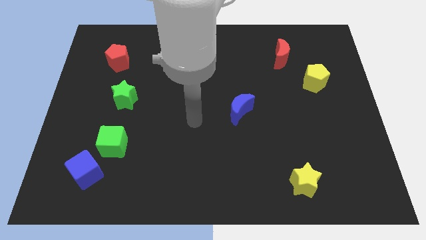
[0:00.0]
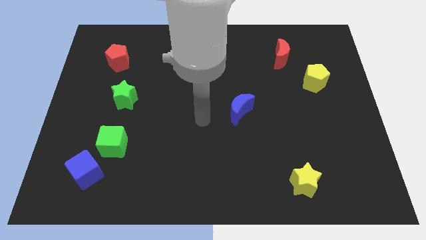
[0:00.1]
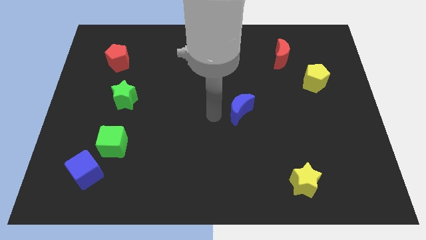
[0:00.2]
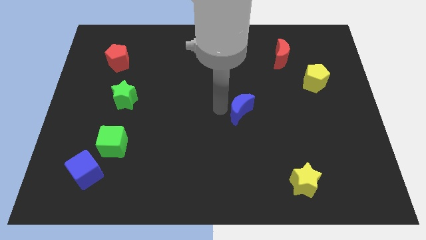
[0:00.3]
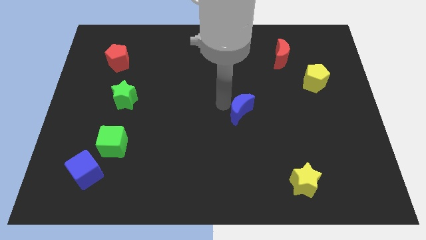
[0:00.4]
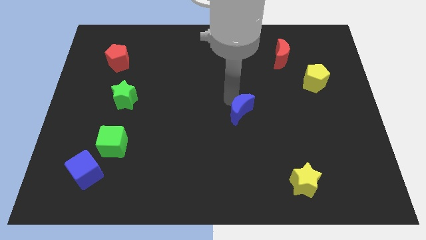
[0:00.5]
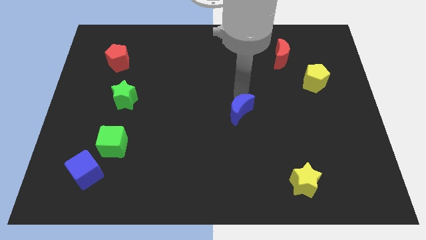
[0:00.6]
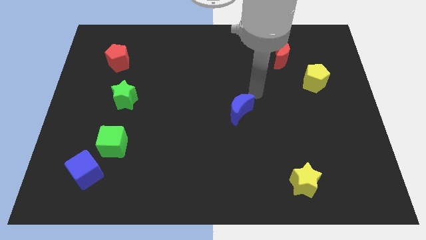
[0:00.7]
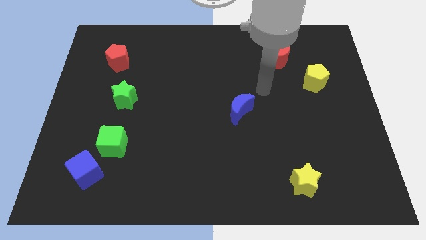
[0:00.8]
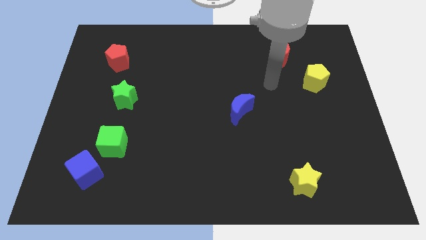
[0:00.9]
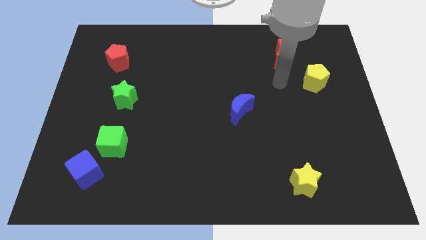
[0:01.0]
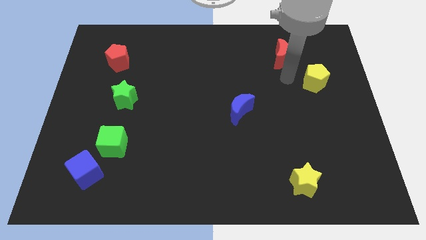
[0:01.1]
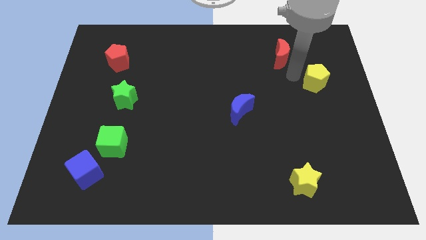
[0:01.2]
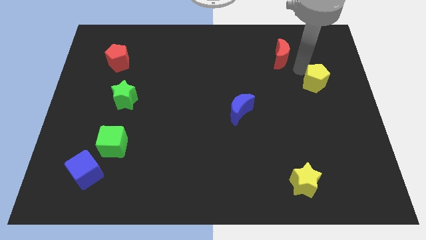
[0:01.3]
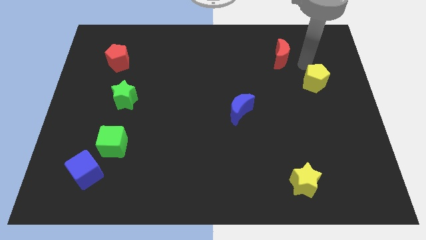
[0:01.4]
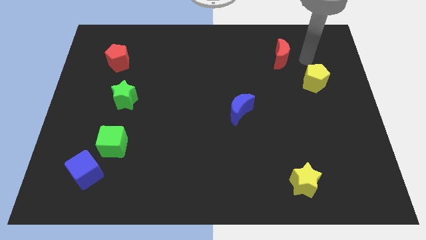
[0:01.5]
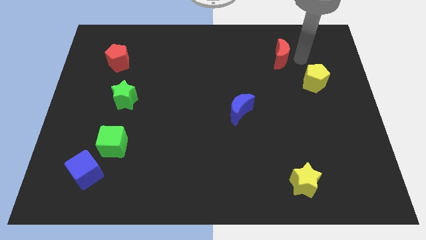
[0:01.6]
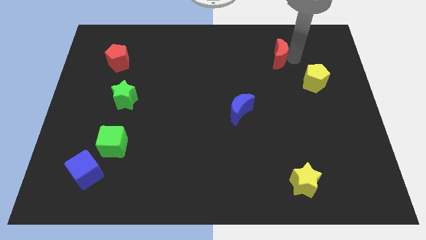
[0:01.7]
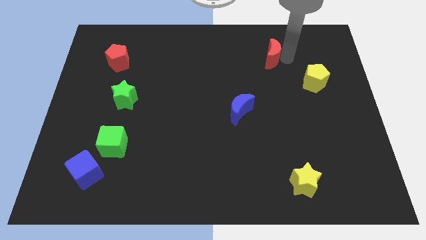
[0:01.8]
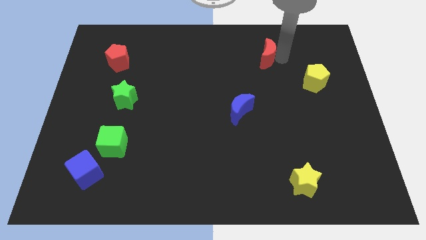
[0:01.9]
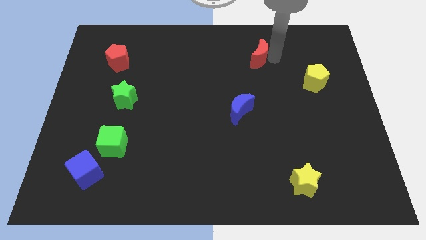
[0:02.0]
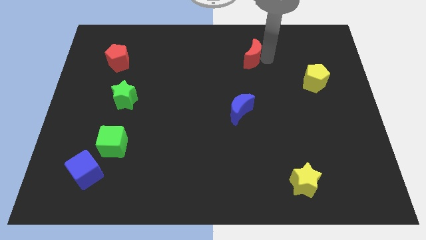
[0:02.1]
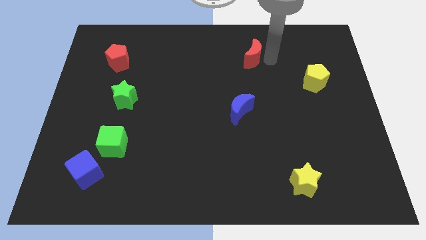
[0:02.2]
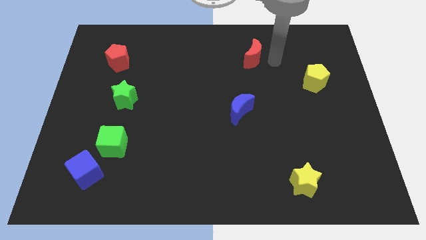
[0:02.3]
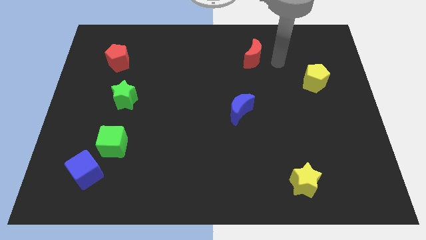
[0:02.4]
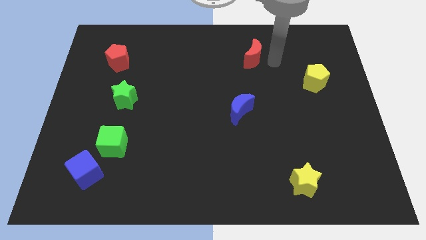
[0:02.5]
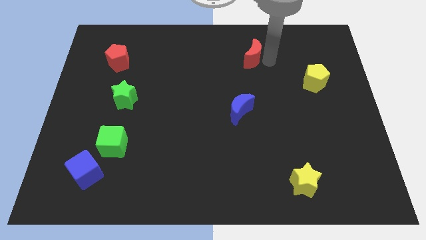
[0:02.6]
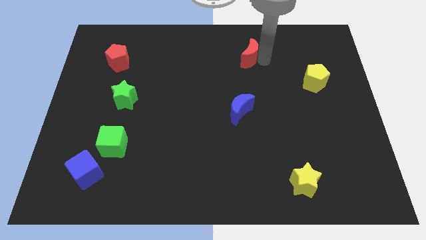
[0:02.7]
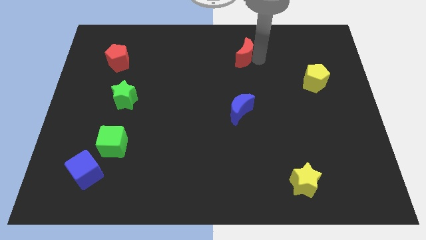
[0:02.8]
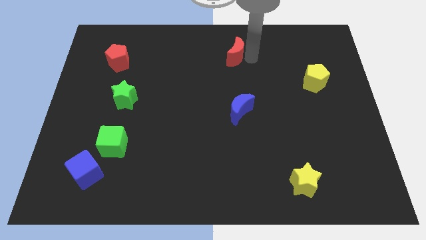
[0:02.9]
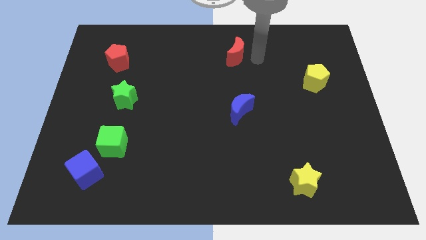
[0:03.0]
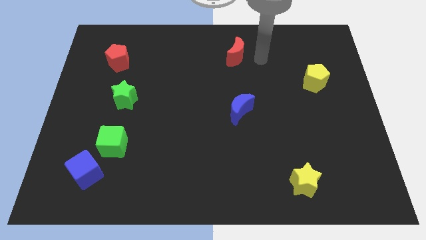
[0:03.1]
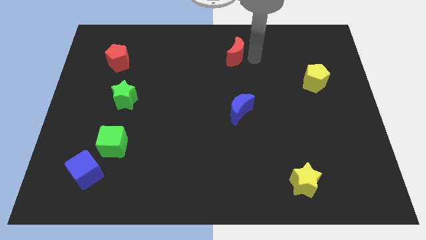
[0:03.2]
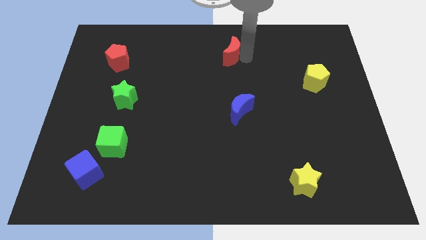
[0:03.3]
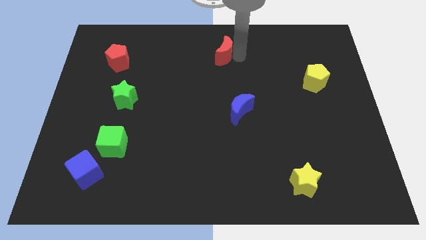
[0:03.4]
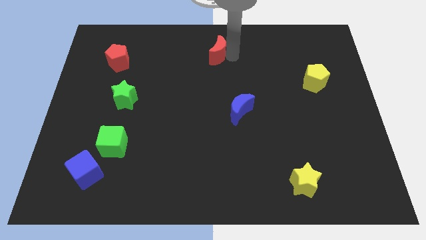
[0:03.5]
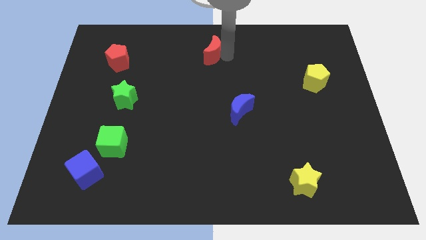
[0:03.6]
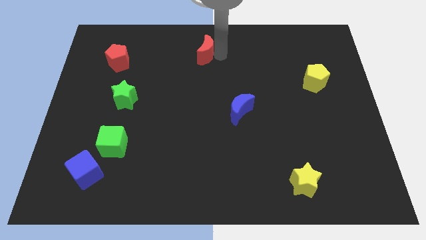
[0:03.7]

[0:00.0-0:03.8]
push the red moon left

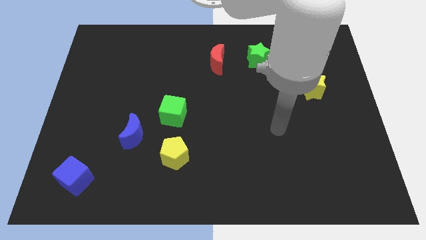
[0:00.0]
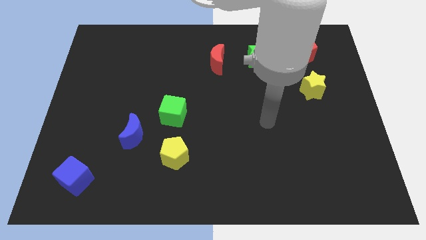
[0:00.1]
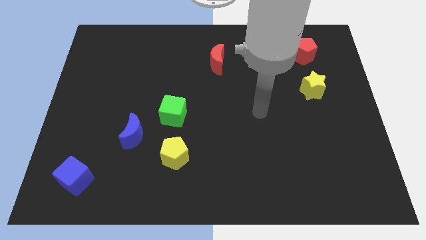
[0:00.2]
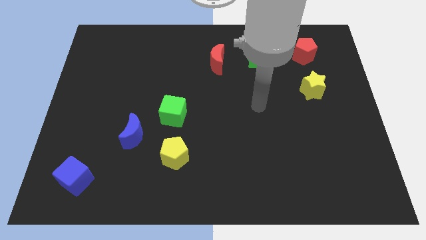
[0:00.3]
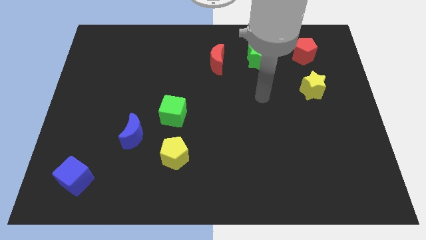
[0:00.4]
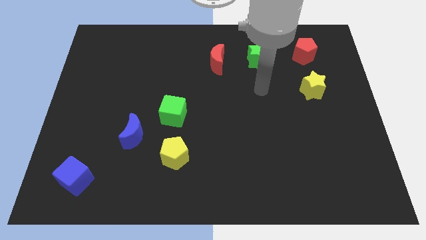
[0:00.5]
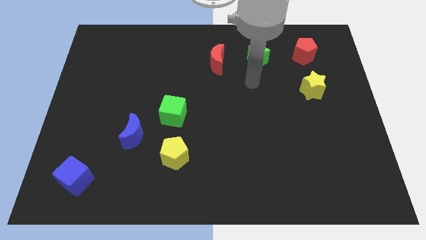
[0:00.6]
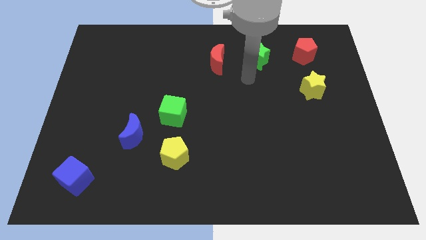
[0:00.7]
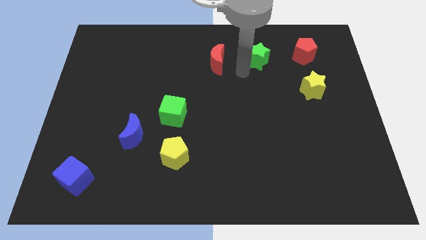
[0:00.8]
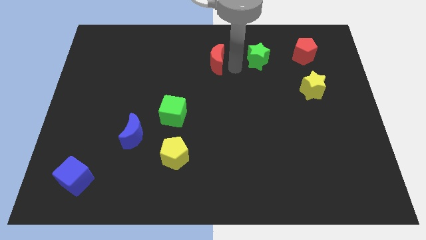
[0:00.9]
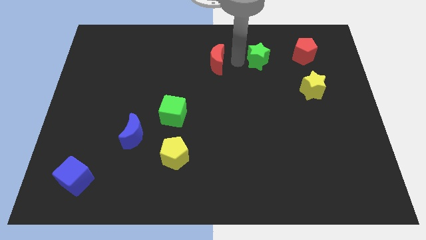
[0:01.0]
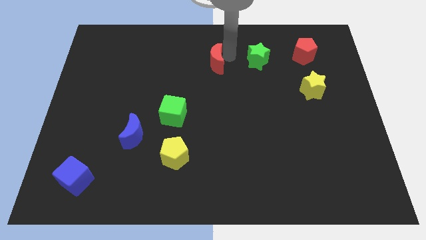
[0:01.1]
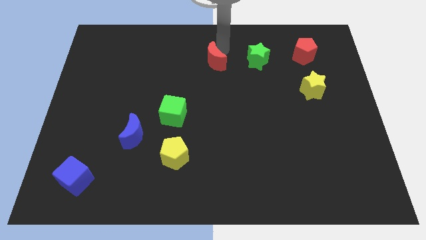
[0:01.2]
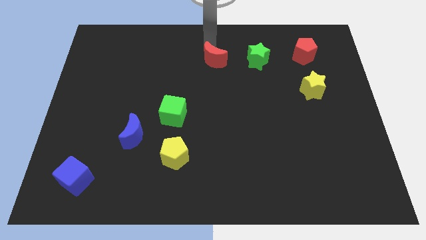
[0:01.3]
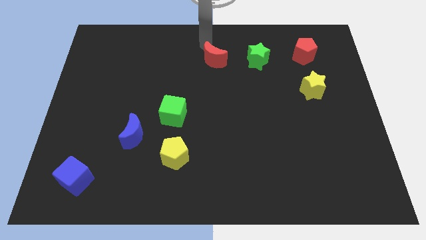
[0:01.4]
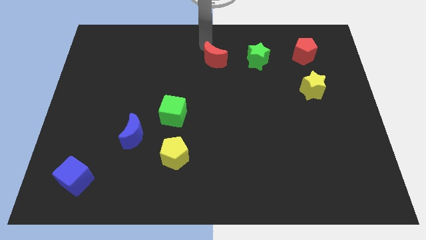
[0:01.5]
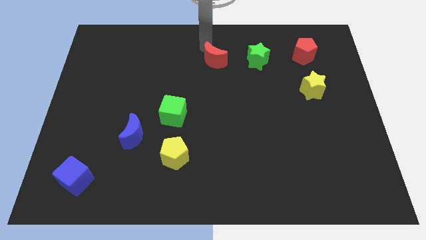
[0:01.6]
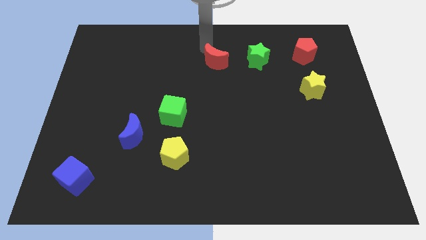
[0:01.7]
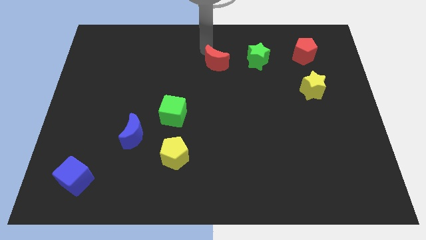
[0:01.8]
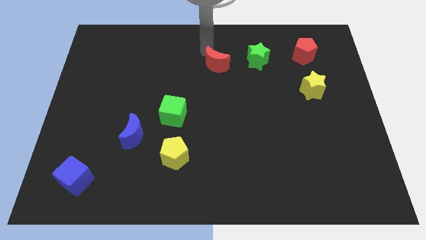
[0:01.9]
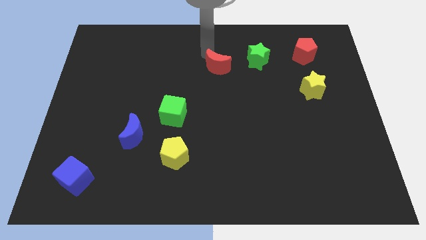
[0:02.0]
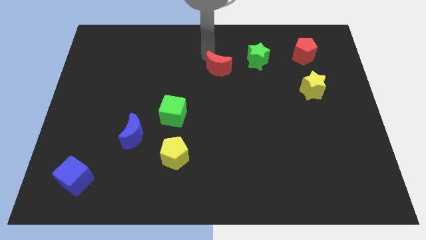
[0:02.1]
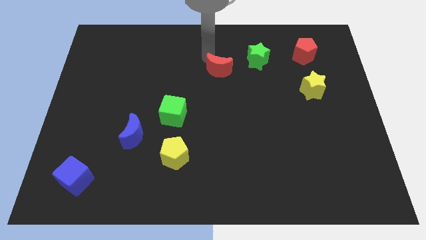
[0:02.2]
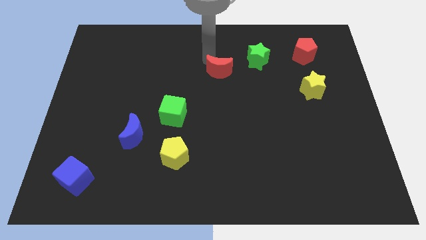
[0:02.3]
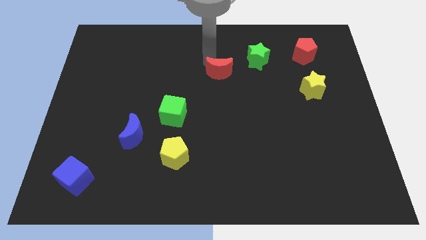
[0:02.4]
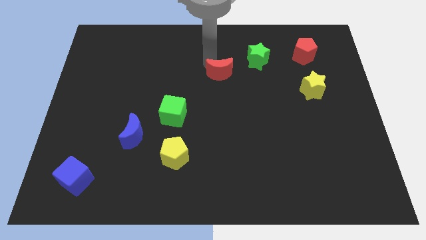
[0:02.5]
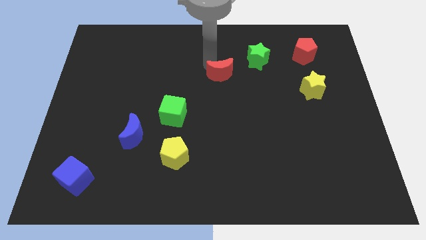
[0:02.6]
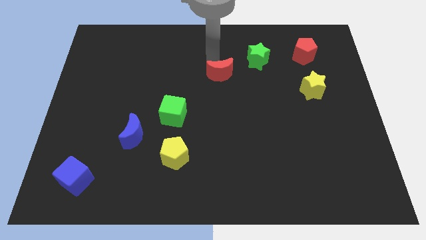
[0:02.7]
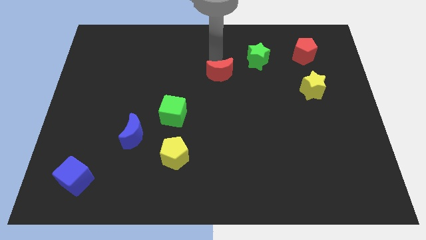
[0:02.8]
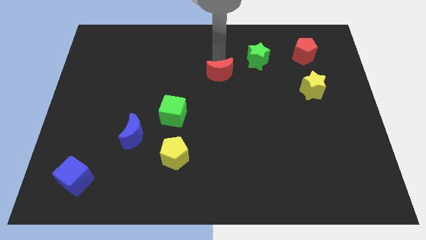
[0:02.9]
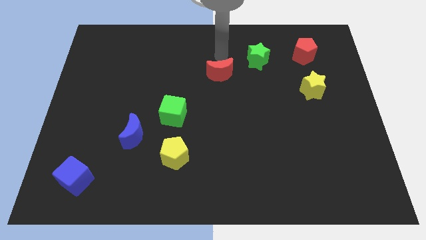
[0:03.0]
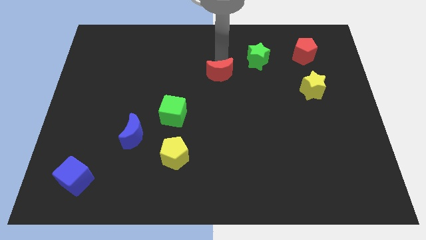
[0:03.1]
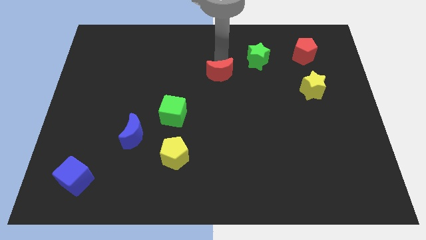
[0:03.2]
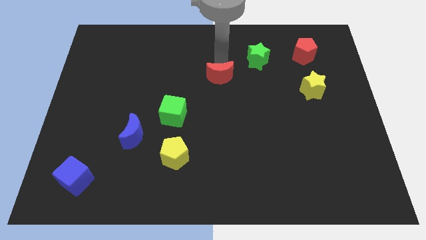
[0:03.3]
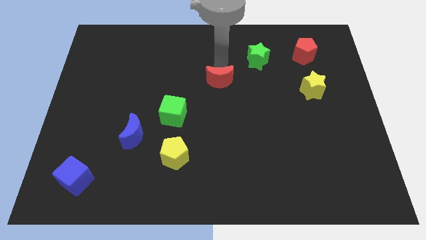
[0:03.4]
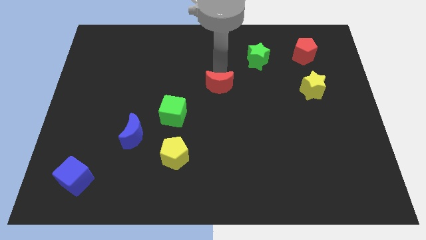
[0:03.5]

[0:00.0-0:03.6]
push the red moon somewhat downwards

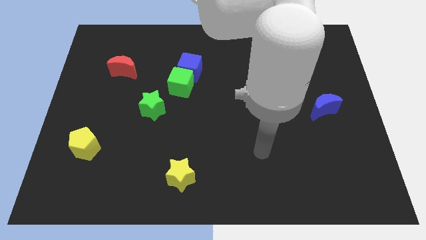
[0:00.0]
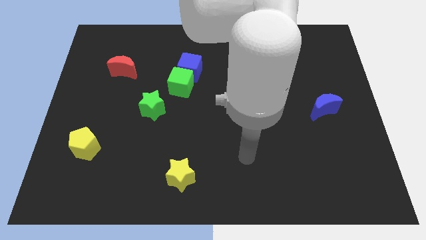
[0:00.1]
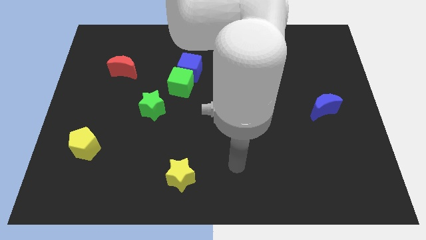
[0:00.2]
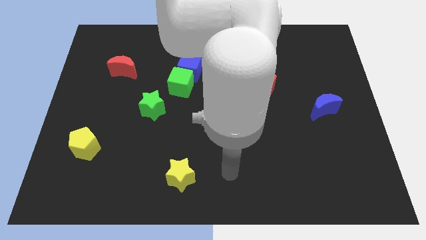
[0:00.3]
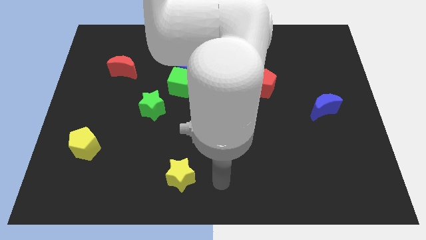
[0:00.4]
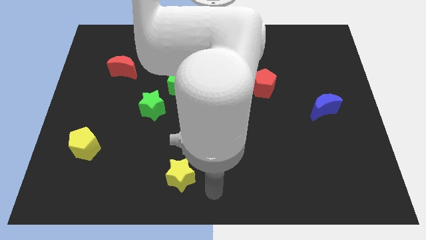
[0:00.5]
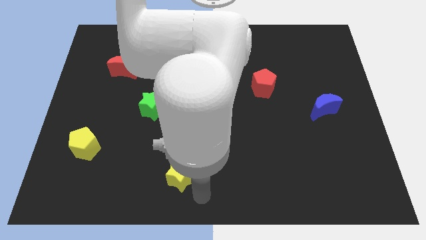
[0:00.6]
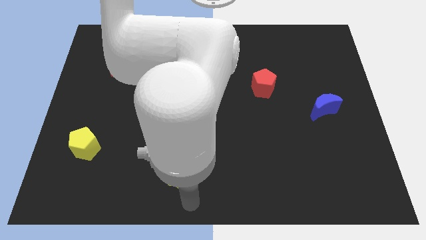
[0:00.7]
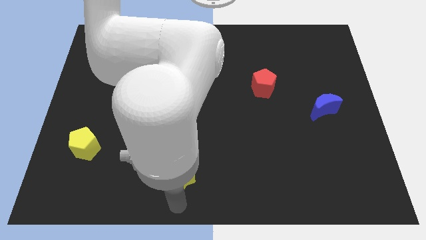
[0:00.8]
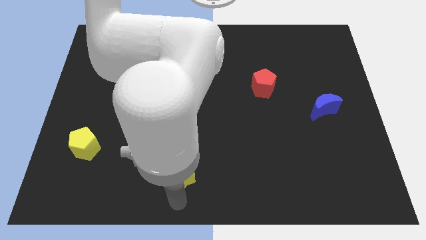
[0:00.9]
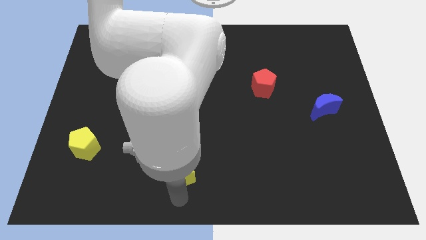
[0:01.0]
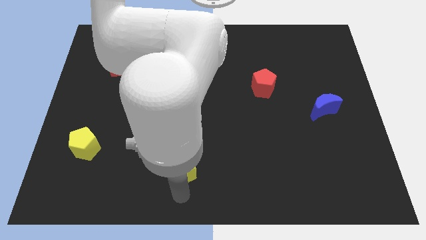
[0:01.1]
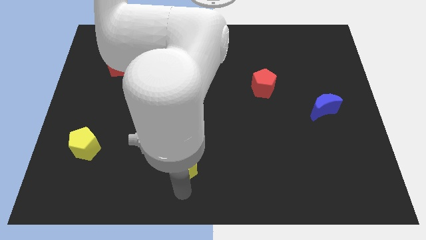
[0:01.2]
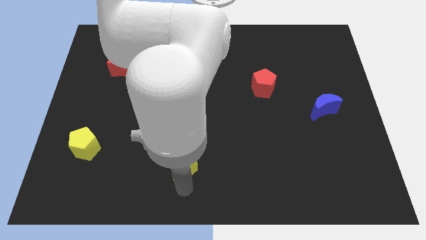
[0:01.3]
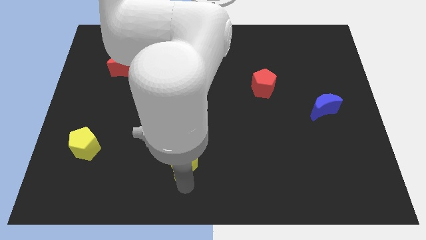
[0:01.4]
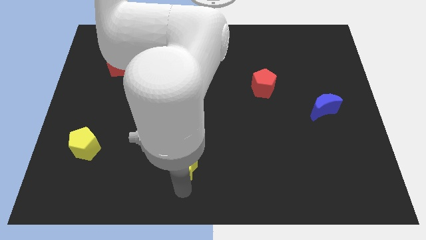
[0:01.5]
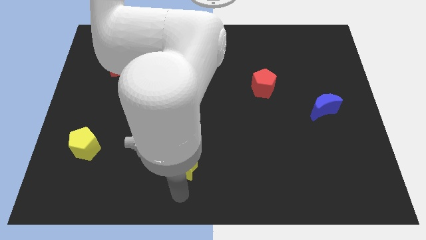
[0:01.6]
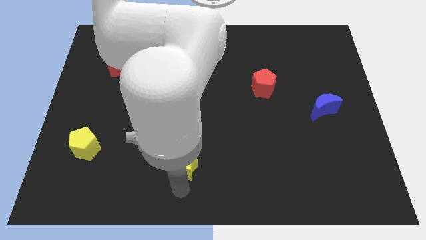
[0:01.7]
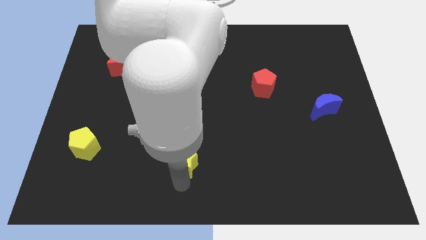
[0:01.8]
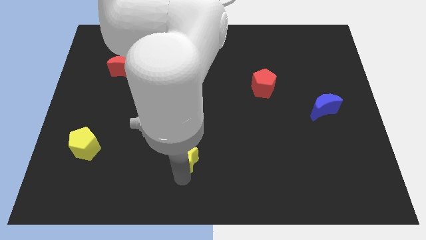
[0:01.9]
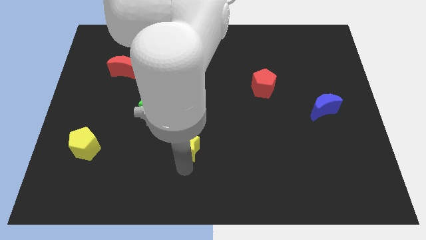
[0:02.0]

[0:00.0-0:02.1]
slightly move the yellow star upwards
